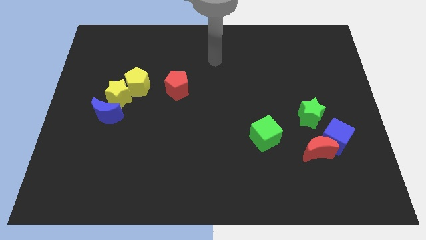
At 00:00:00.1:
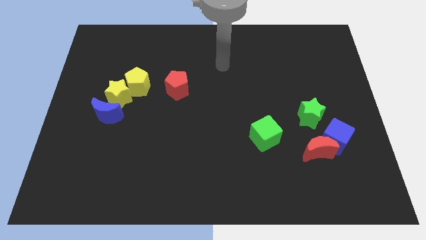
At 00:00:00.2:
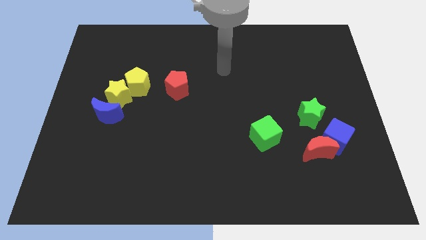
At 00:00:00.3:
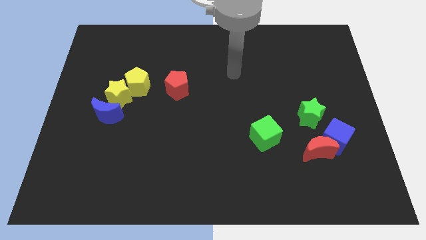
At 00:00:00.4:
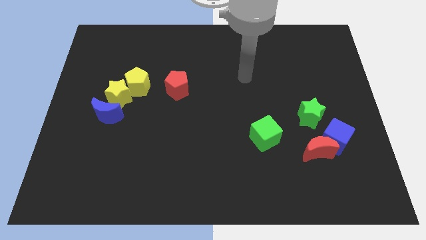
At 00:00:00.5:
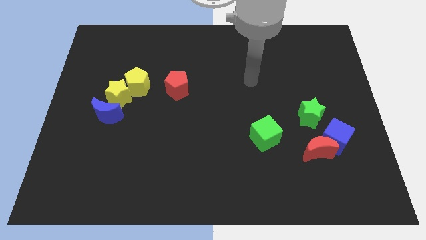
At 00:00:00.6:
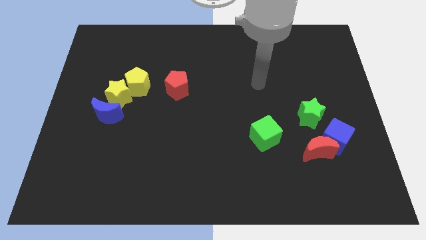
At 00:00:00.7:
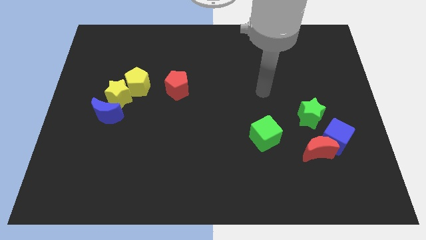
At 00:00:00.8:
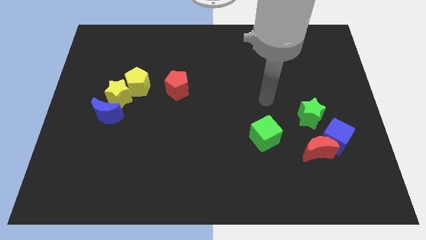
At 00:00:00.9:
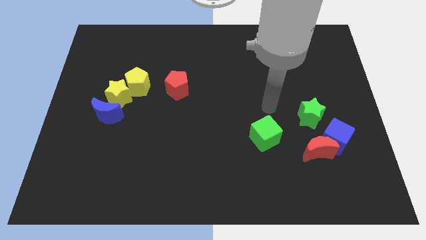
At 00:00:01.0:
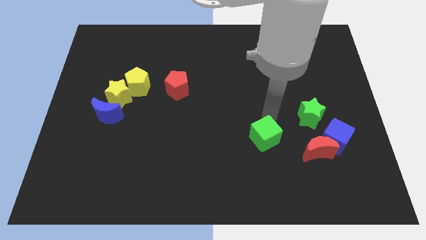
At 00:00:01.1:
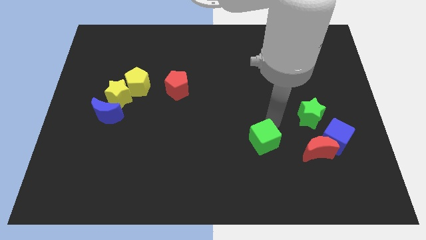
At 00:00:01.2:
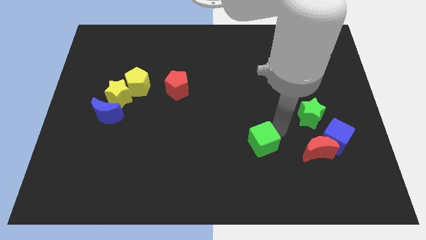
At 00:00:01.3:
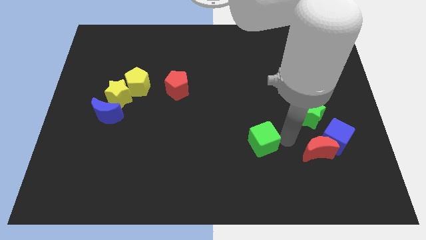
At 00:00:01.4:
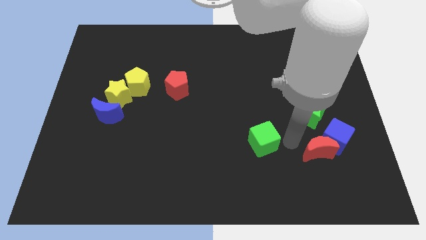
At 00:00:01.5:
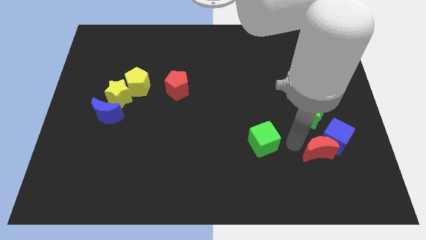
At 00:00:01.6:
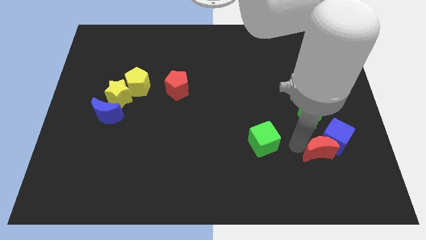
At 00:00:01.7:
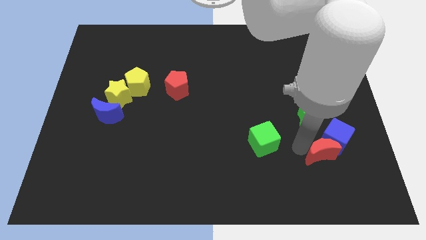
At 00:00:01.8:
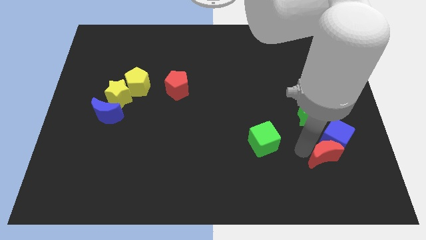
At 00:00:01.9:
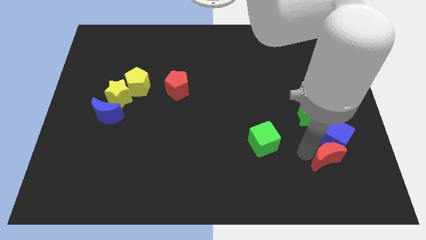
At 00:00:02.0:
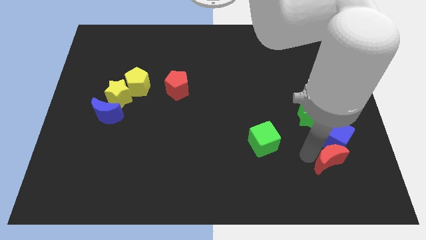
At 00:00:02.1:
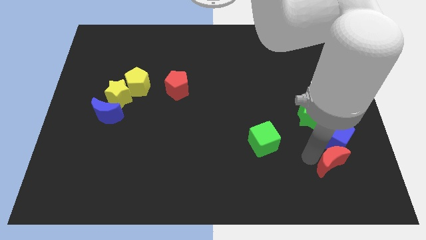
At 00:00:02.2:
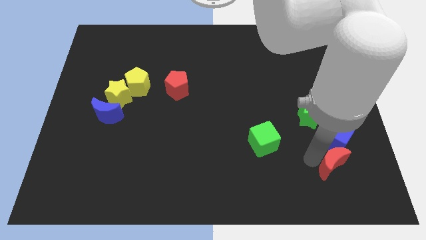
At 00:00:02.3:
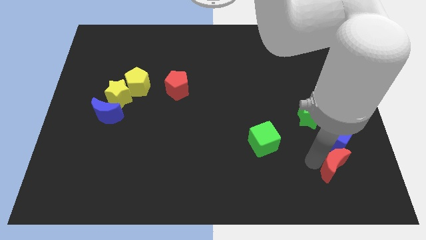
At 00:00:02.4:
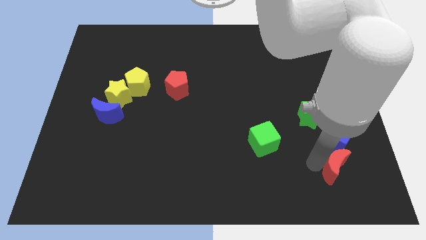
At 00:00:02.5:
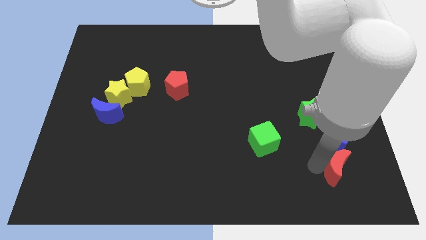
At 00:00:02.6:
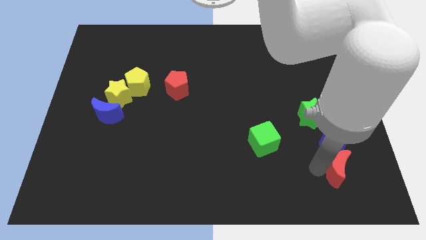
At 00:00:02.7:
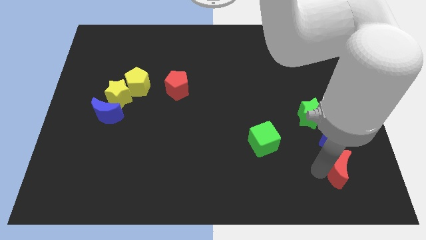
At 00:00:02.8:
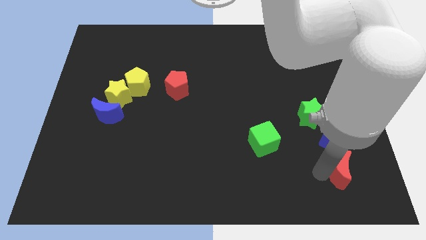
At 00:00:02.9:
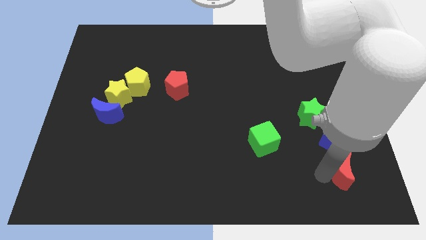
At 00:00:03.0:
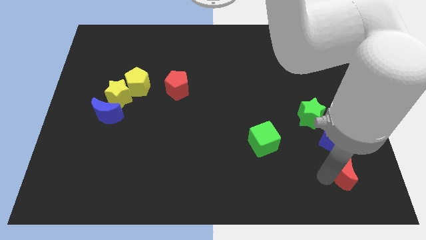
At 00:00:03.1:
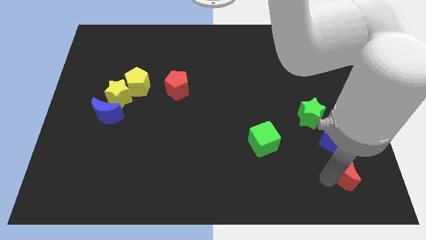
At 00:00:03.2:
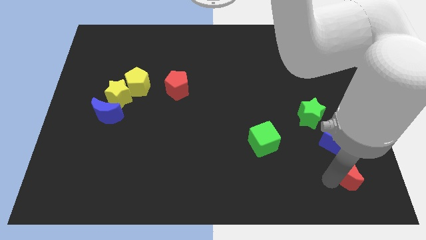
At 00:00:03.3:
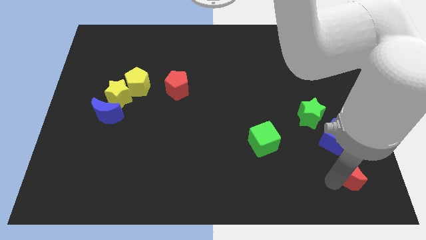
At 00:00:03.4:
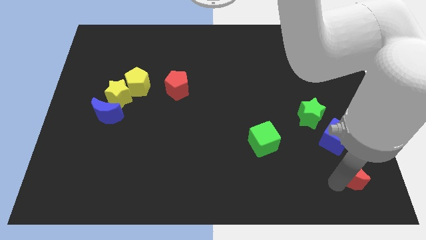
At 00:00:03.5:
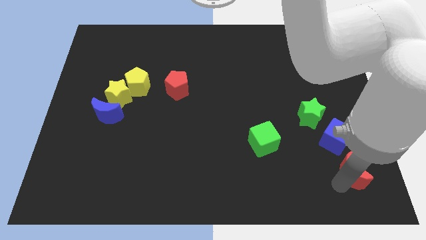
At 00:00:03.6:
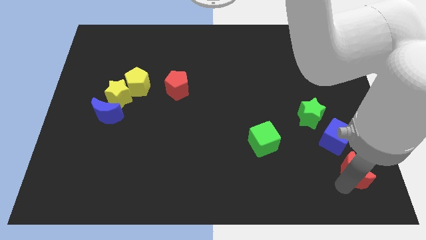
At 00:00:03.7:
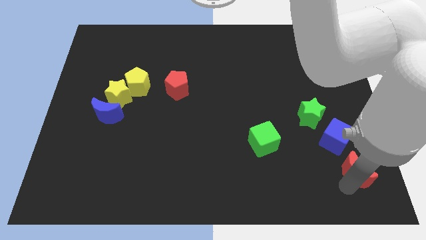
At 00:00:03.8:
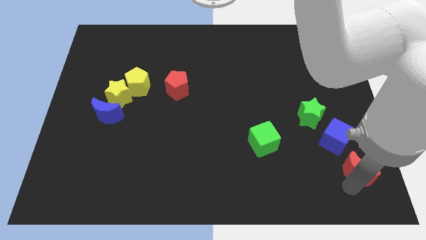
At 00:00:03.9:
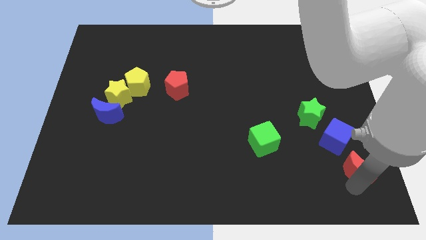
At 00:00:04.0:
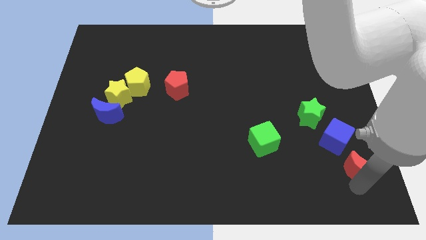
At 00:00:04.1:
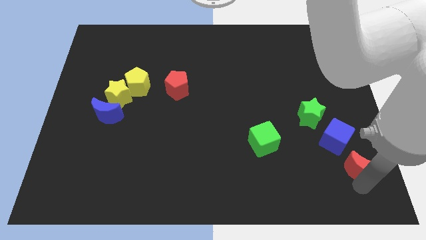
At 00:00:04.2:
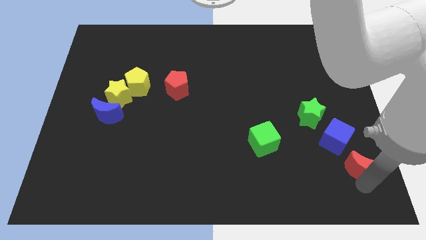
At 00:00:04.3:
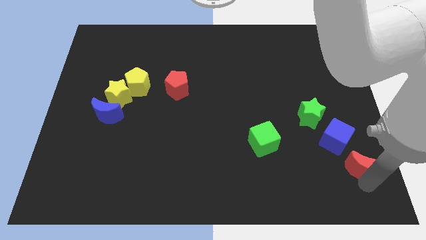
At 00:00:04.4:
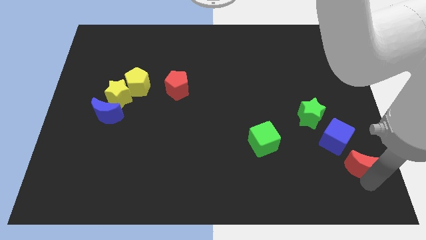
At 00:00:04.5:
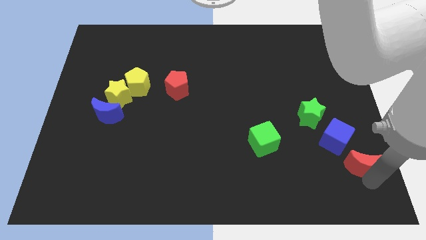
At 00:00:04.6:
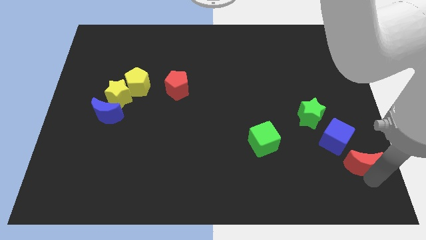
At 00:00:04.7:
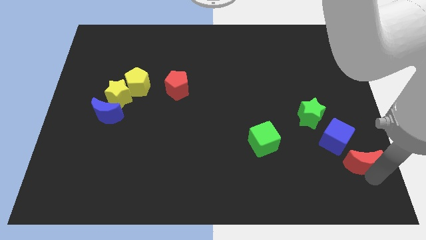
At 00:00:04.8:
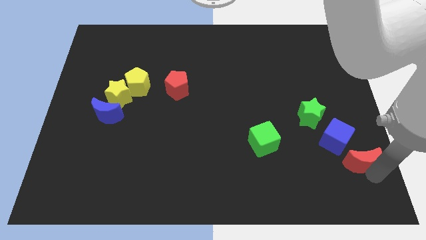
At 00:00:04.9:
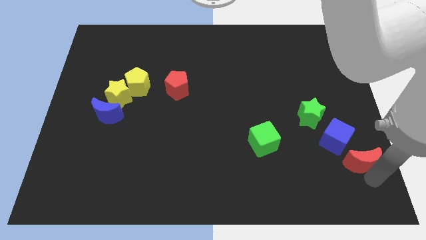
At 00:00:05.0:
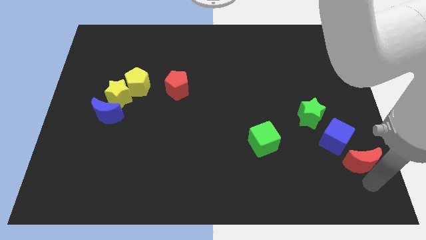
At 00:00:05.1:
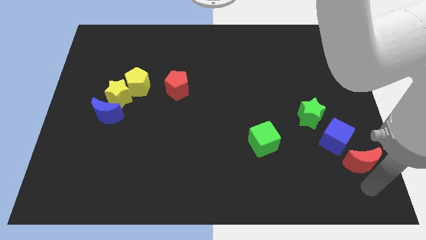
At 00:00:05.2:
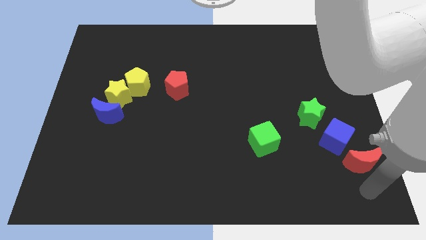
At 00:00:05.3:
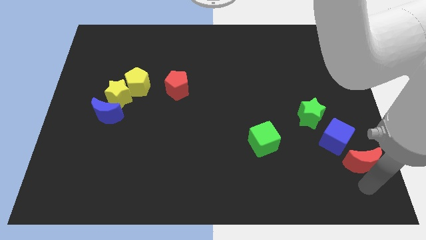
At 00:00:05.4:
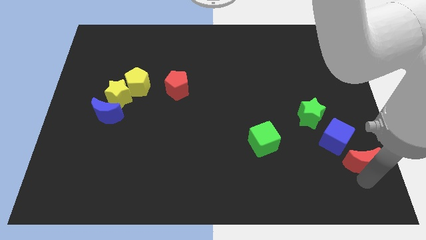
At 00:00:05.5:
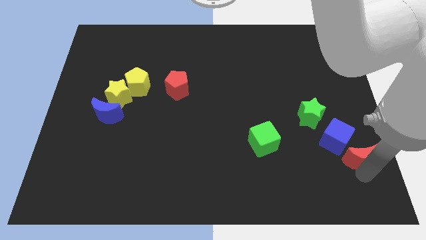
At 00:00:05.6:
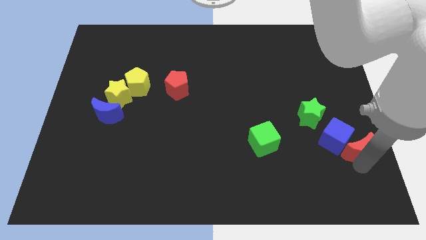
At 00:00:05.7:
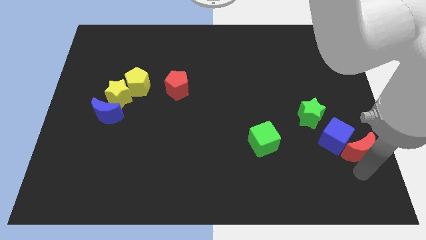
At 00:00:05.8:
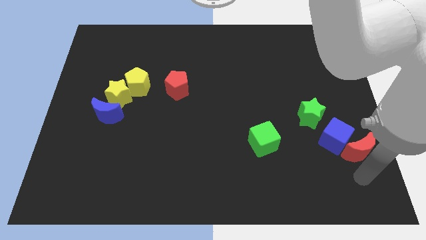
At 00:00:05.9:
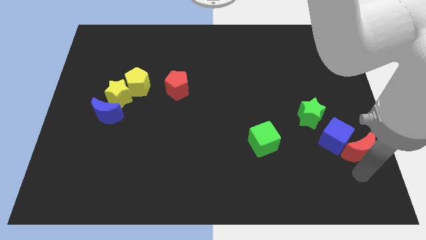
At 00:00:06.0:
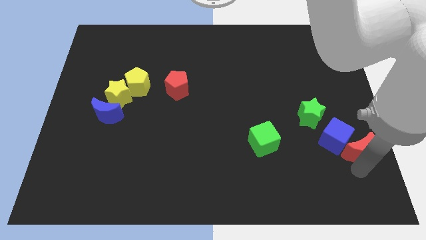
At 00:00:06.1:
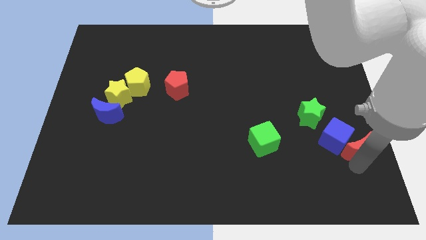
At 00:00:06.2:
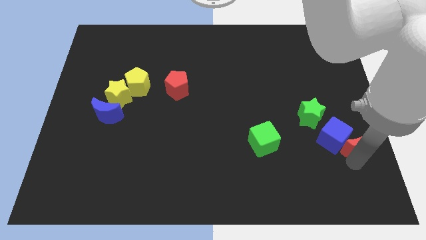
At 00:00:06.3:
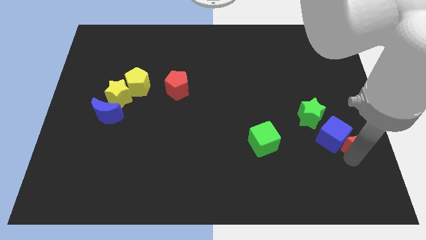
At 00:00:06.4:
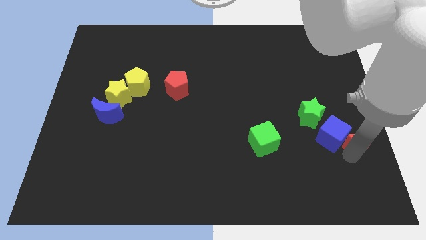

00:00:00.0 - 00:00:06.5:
slide the red moon to the right side of the board

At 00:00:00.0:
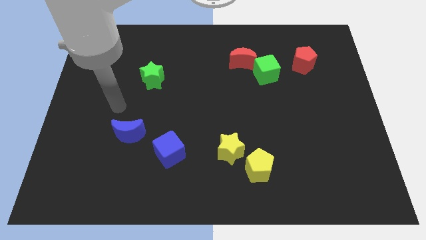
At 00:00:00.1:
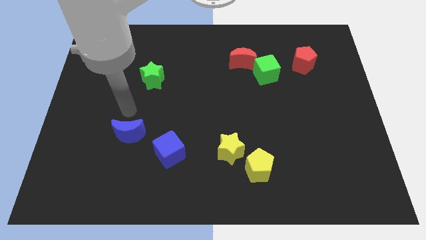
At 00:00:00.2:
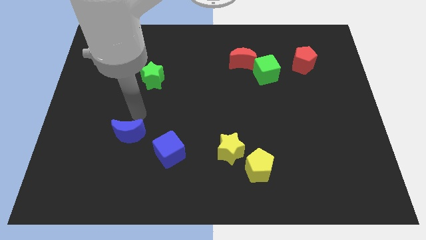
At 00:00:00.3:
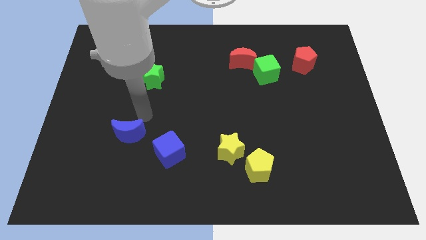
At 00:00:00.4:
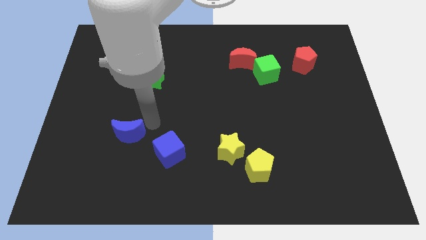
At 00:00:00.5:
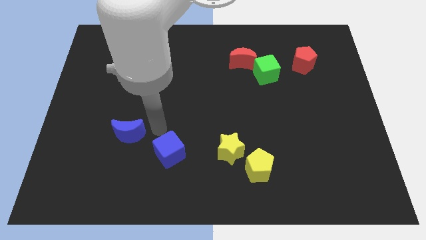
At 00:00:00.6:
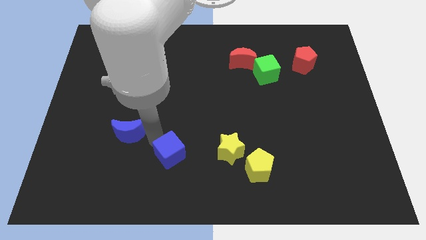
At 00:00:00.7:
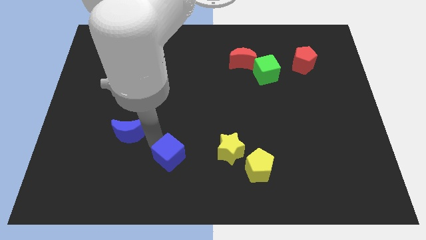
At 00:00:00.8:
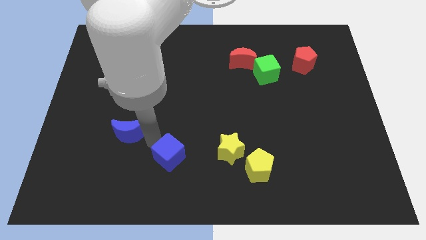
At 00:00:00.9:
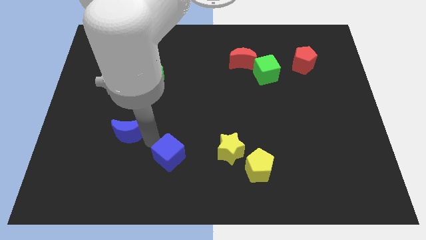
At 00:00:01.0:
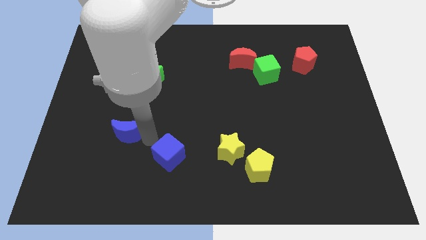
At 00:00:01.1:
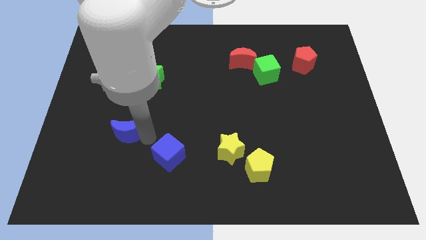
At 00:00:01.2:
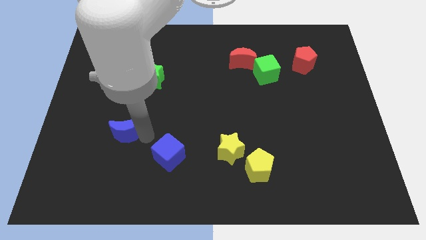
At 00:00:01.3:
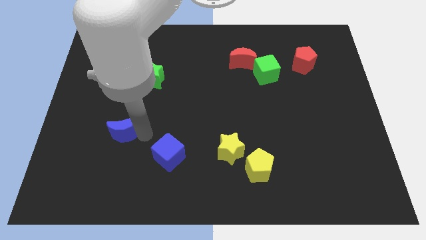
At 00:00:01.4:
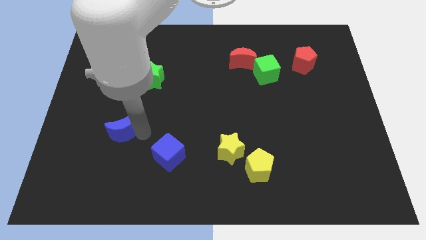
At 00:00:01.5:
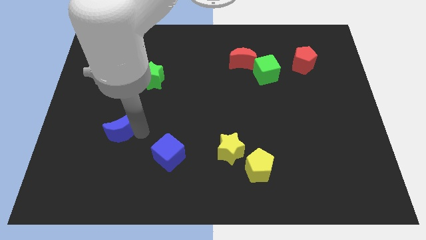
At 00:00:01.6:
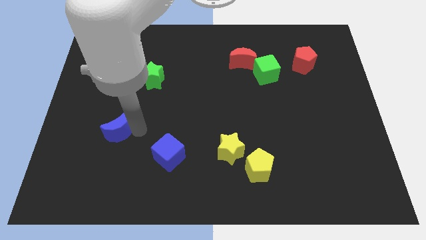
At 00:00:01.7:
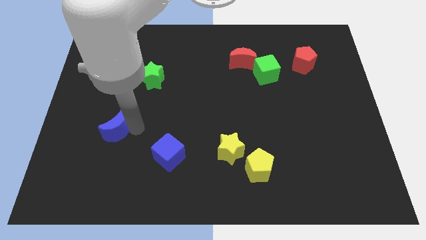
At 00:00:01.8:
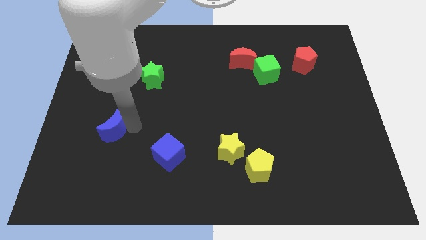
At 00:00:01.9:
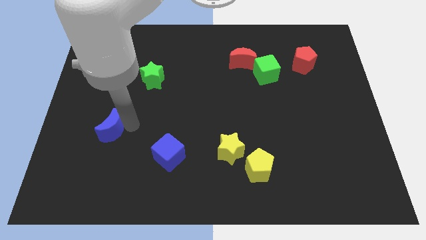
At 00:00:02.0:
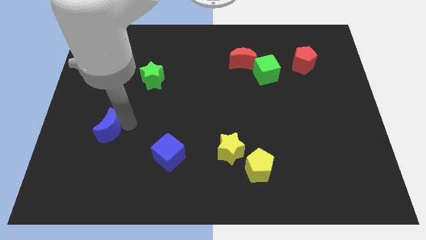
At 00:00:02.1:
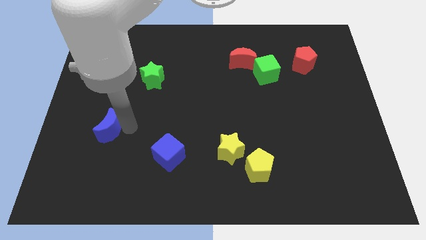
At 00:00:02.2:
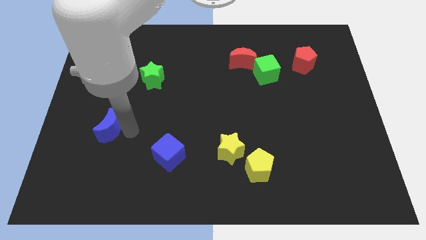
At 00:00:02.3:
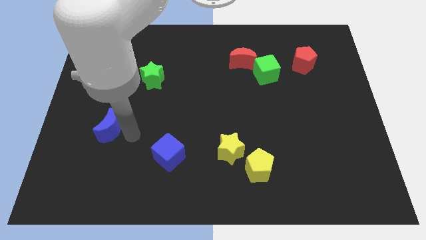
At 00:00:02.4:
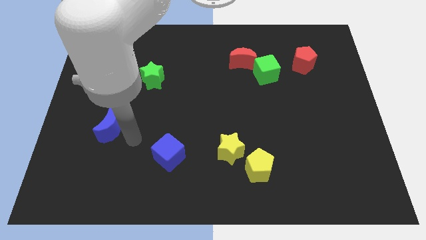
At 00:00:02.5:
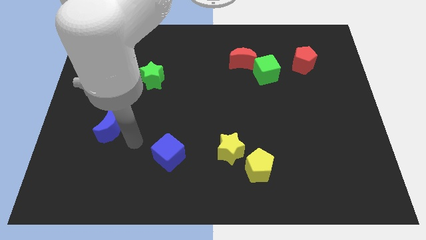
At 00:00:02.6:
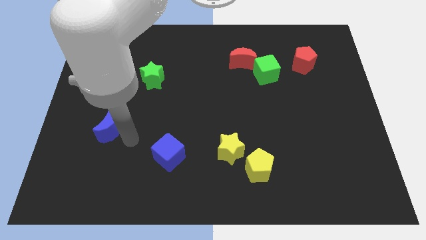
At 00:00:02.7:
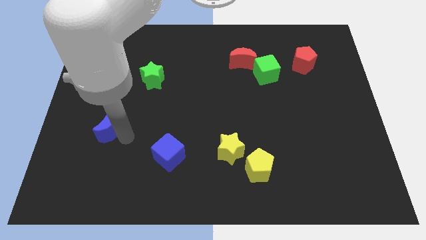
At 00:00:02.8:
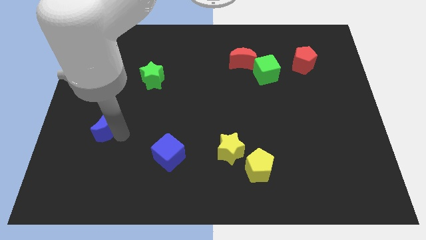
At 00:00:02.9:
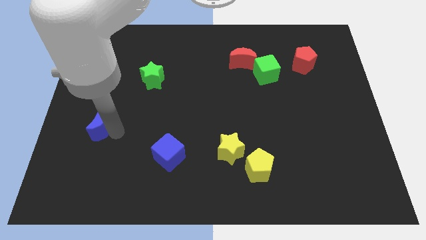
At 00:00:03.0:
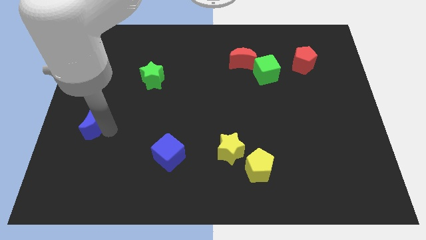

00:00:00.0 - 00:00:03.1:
push the blue moon to the left side of the board
